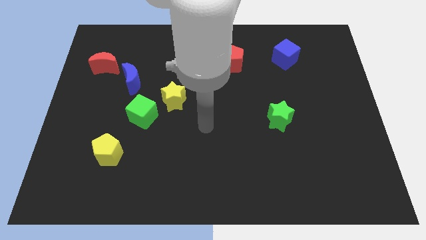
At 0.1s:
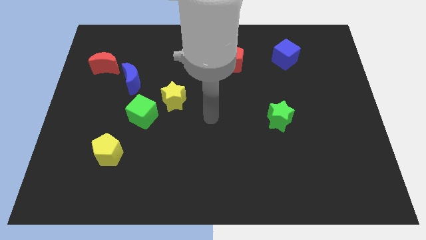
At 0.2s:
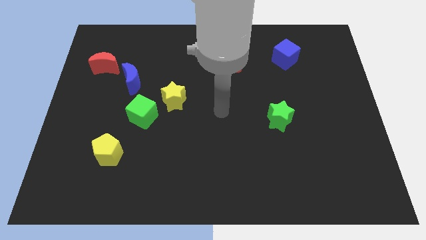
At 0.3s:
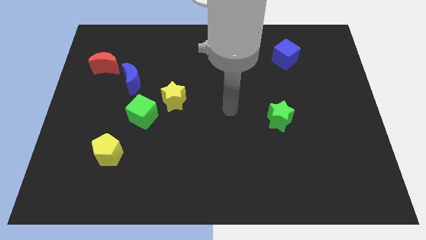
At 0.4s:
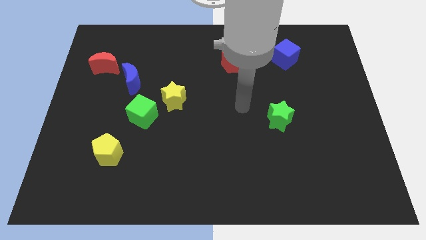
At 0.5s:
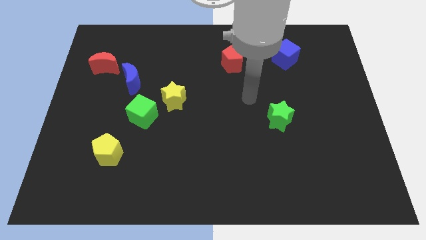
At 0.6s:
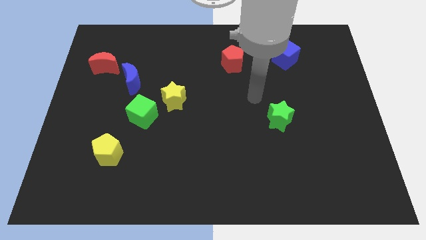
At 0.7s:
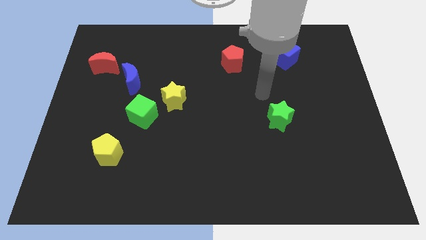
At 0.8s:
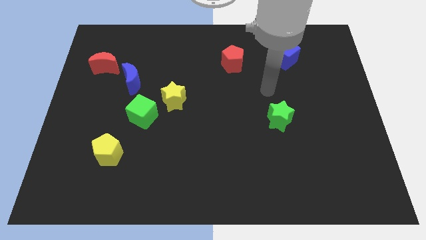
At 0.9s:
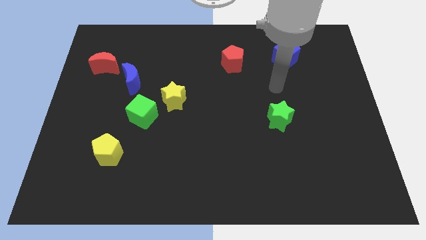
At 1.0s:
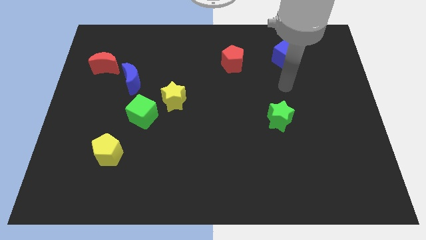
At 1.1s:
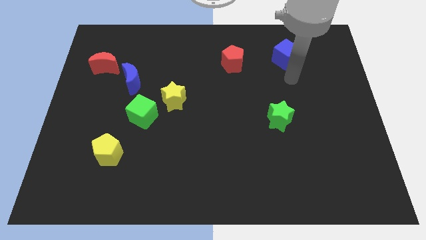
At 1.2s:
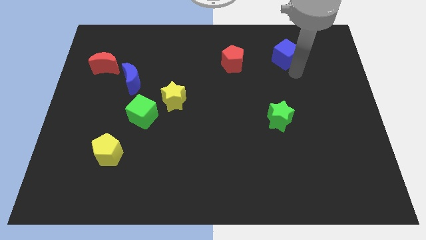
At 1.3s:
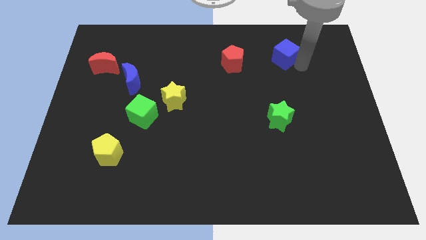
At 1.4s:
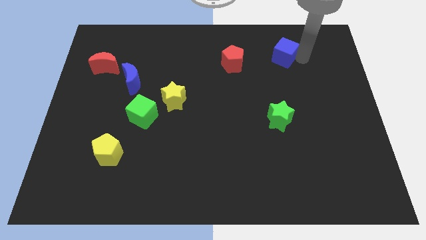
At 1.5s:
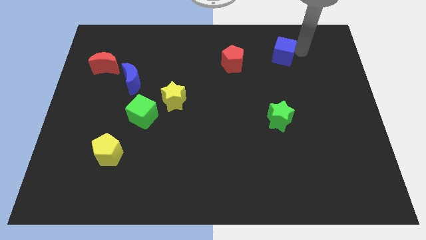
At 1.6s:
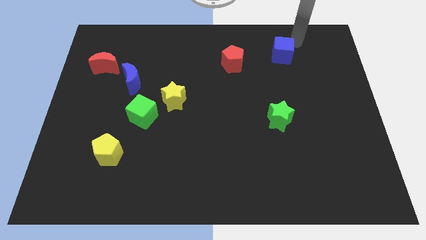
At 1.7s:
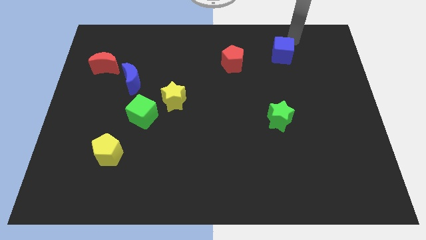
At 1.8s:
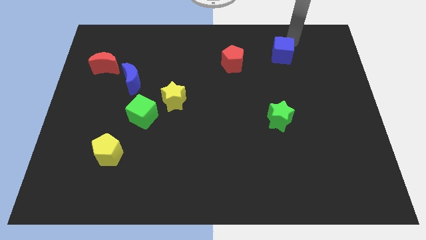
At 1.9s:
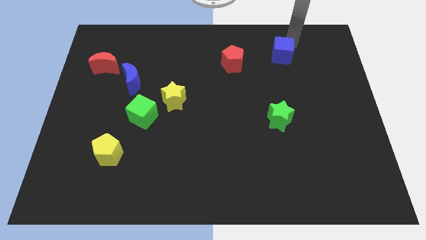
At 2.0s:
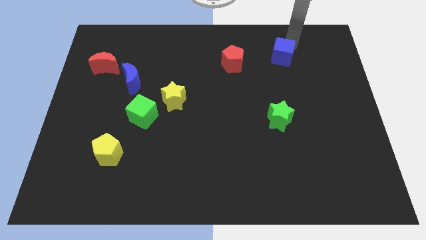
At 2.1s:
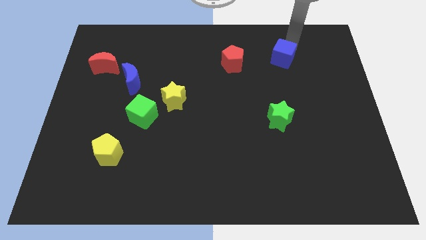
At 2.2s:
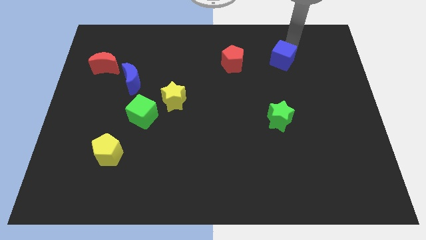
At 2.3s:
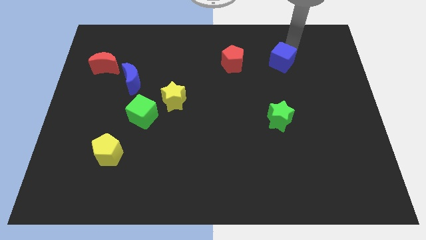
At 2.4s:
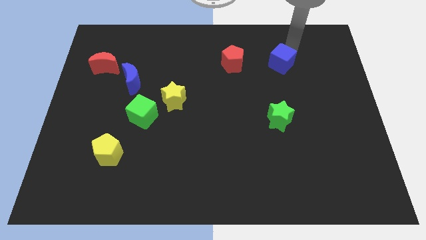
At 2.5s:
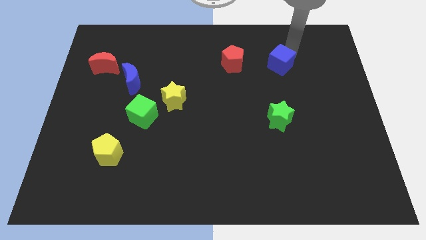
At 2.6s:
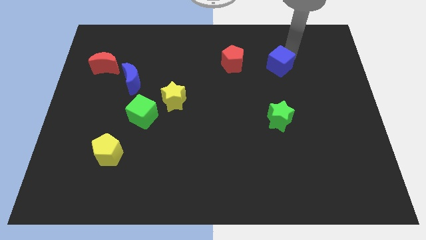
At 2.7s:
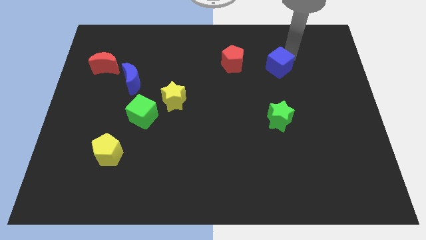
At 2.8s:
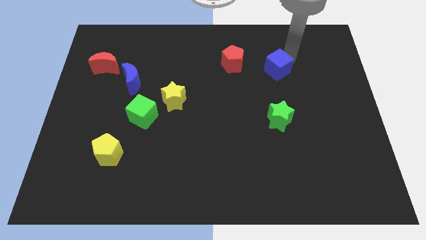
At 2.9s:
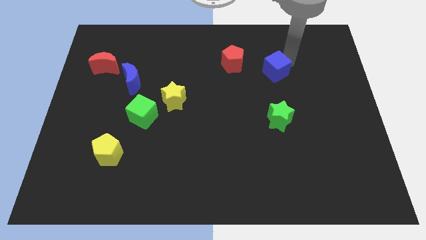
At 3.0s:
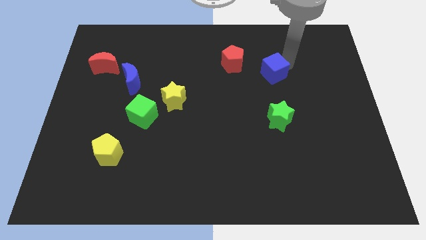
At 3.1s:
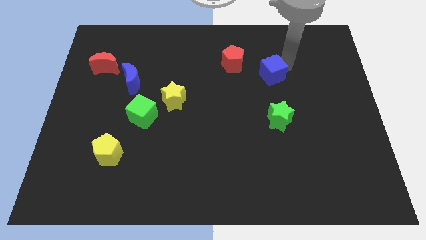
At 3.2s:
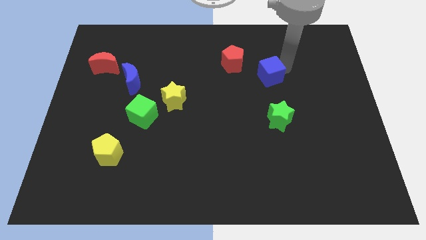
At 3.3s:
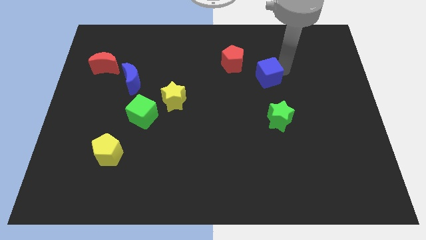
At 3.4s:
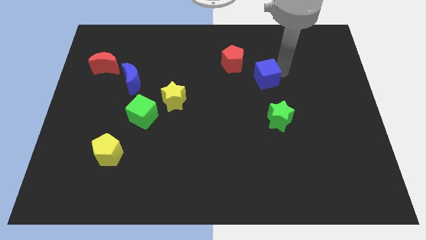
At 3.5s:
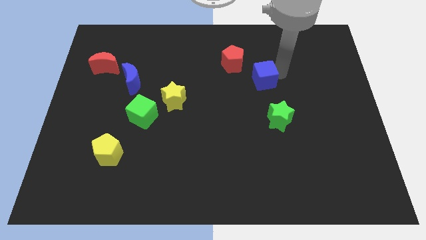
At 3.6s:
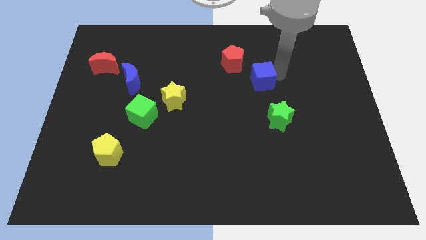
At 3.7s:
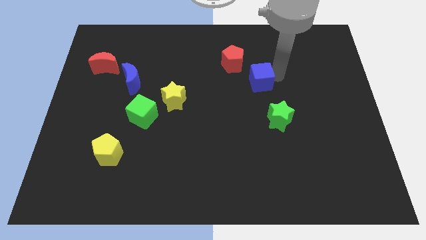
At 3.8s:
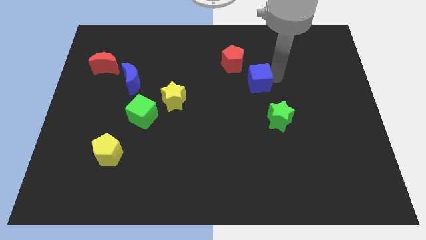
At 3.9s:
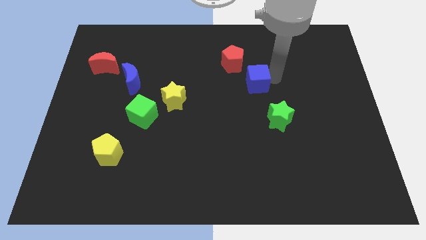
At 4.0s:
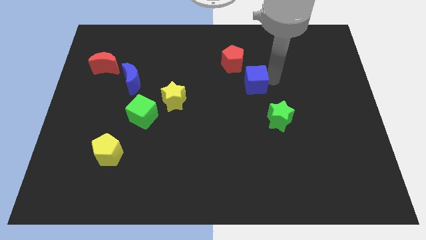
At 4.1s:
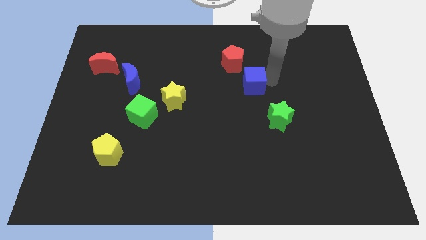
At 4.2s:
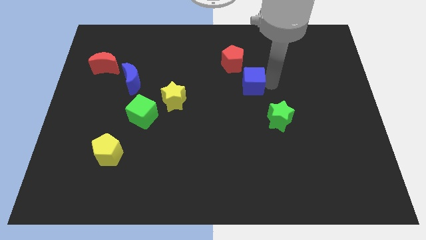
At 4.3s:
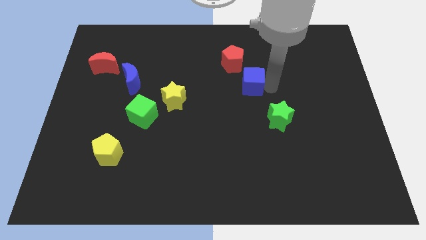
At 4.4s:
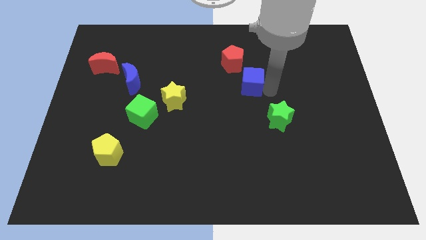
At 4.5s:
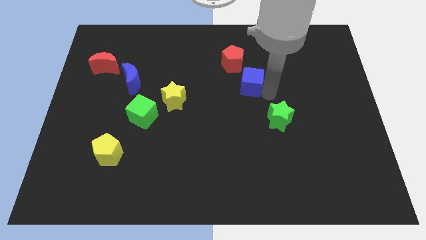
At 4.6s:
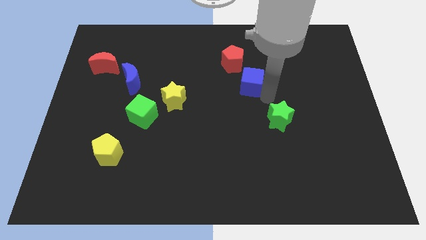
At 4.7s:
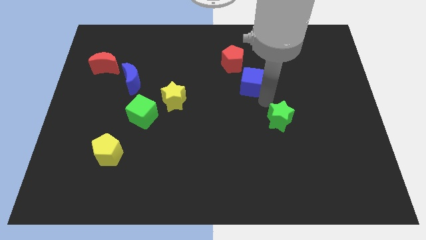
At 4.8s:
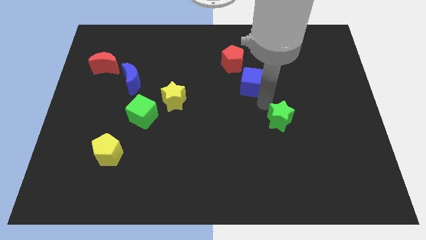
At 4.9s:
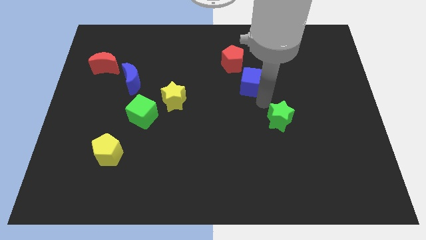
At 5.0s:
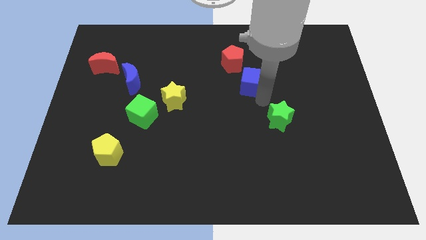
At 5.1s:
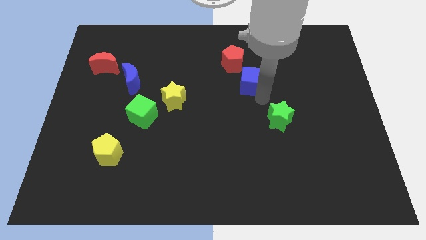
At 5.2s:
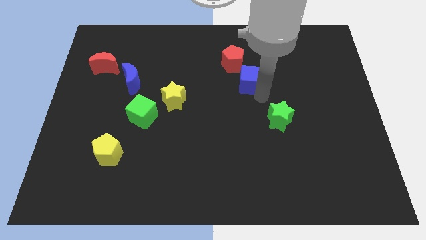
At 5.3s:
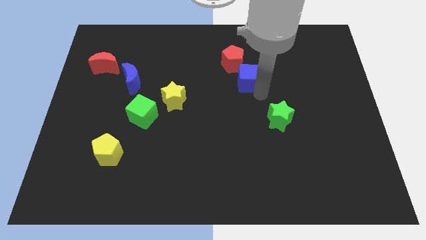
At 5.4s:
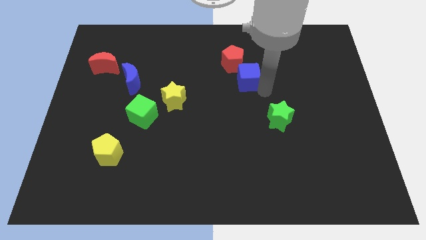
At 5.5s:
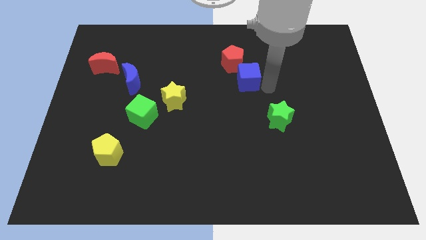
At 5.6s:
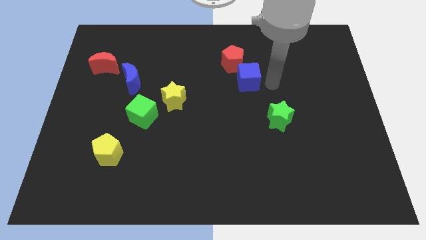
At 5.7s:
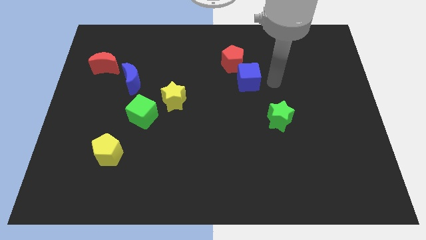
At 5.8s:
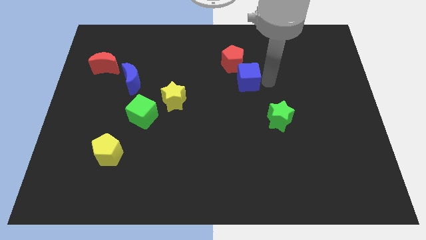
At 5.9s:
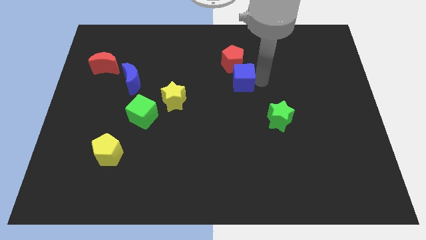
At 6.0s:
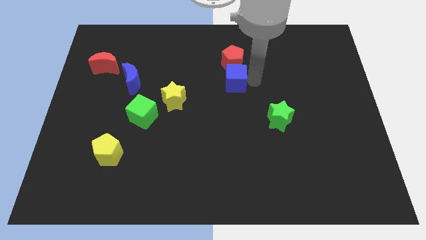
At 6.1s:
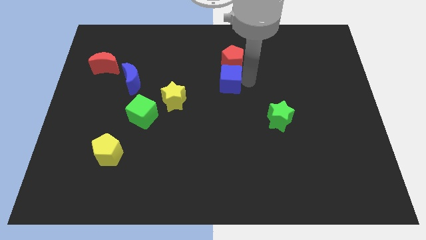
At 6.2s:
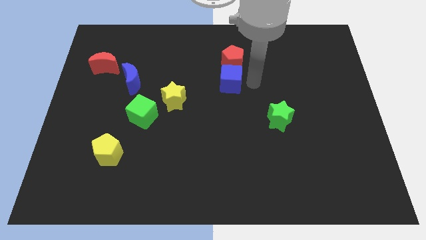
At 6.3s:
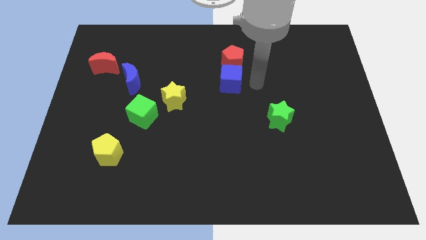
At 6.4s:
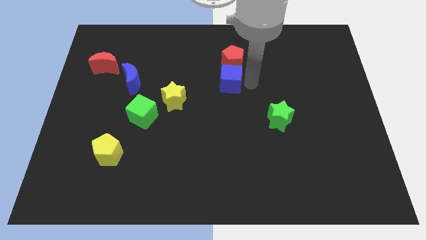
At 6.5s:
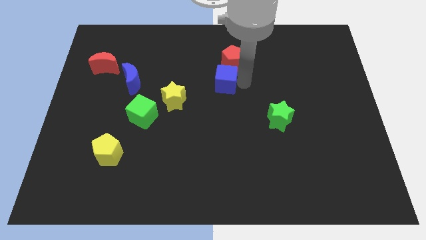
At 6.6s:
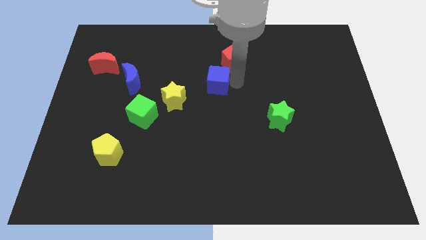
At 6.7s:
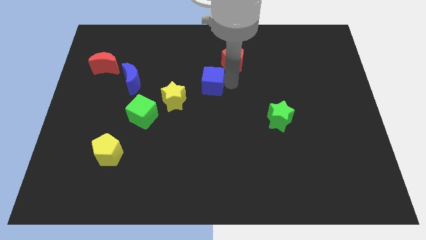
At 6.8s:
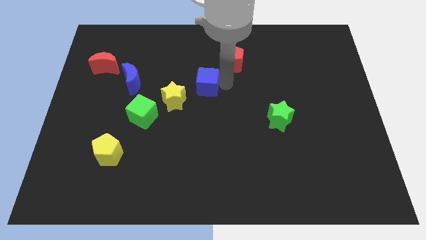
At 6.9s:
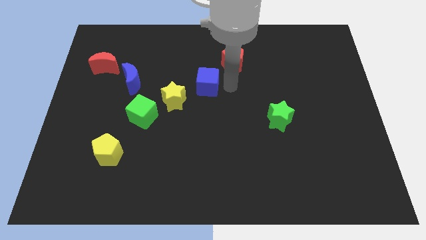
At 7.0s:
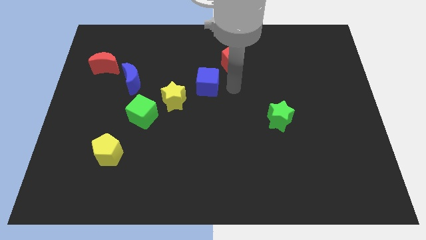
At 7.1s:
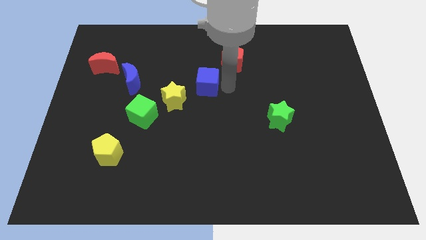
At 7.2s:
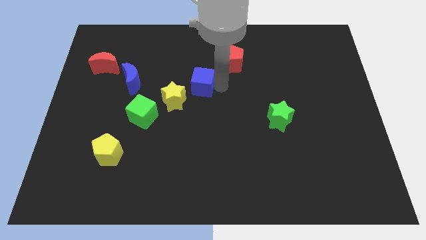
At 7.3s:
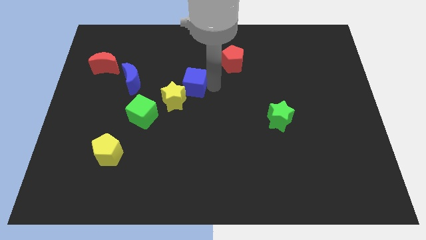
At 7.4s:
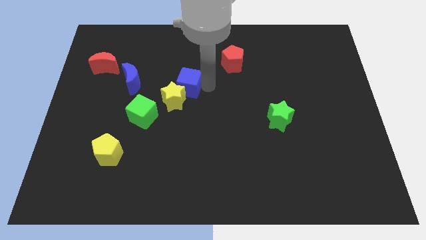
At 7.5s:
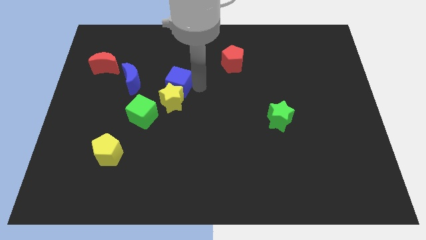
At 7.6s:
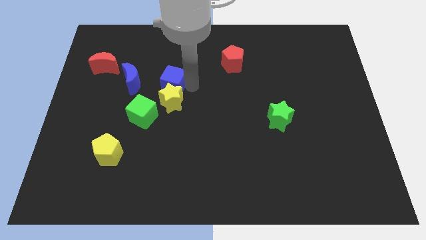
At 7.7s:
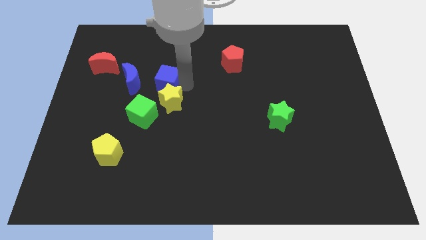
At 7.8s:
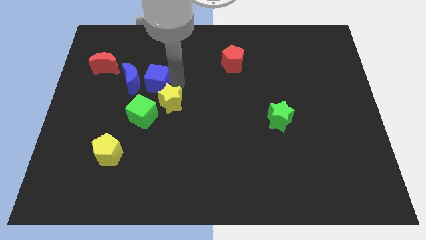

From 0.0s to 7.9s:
slide the blue cube towards the blue moon
